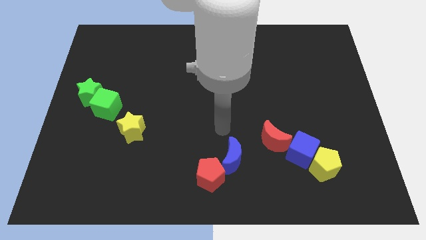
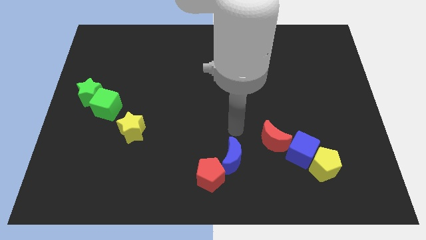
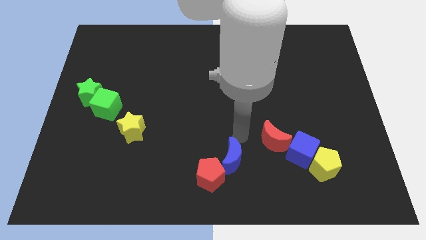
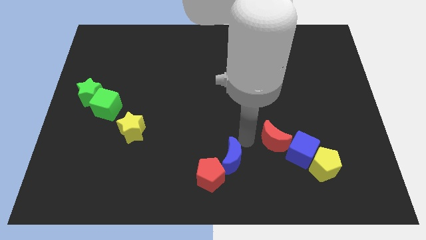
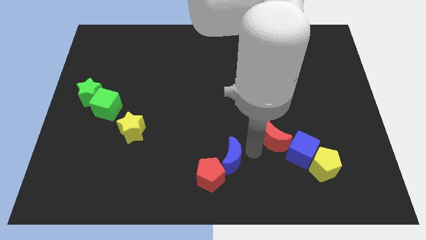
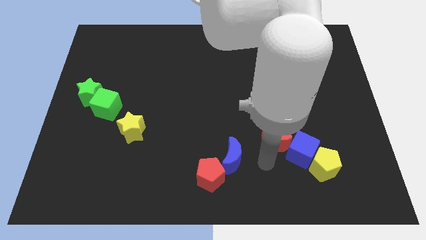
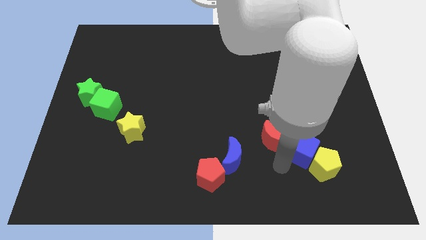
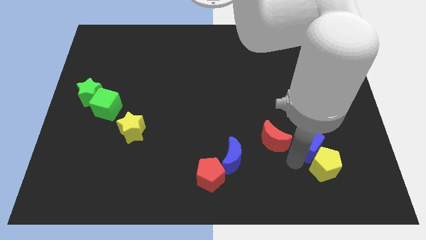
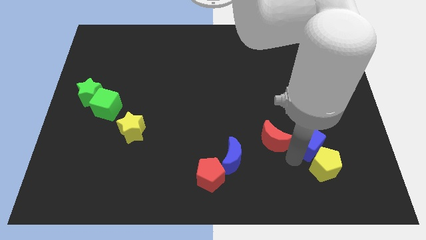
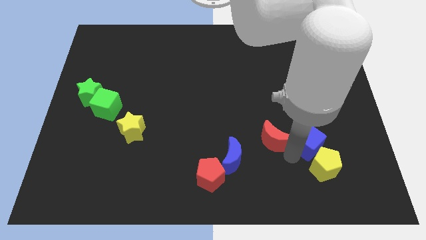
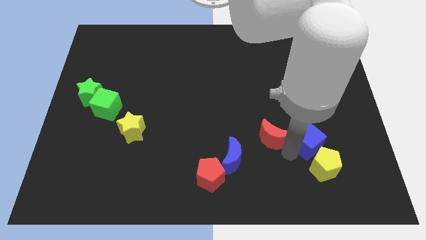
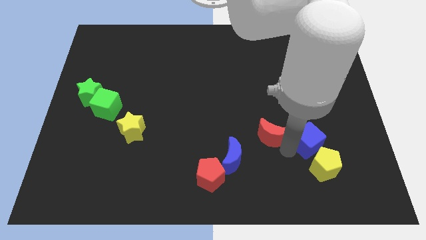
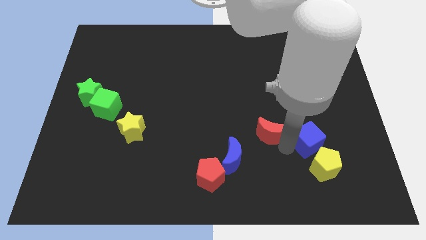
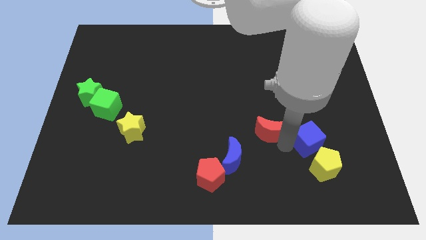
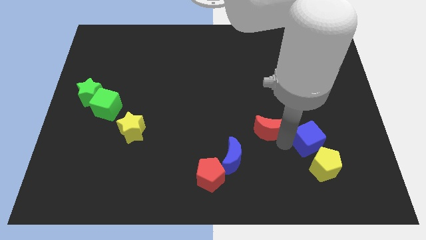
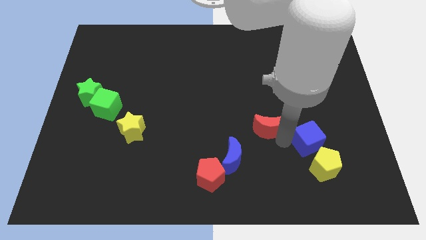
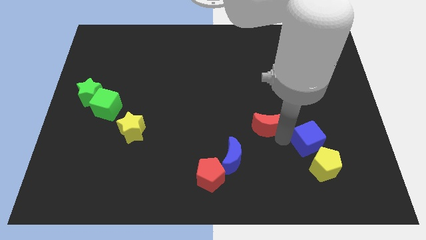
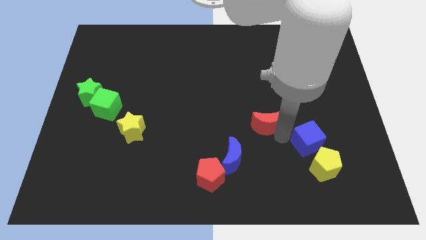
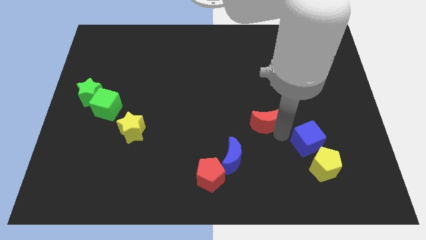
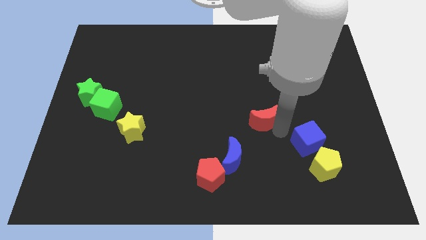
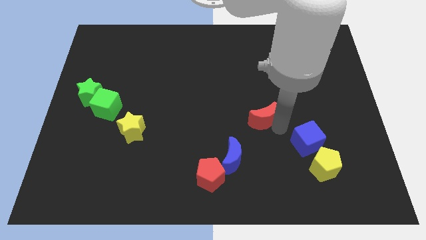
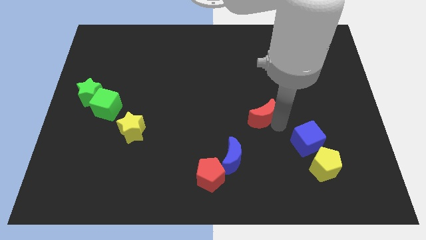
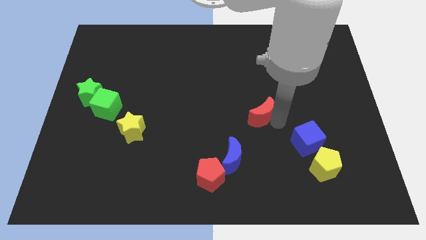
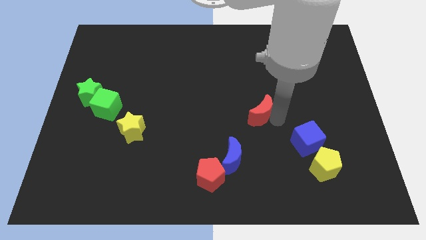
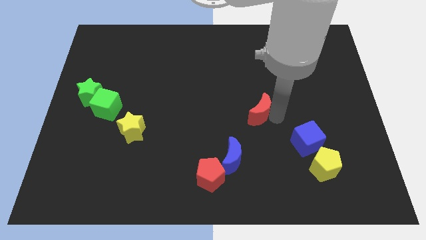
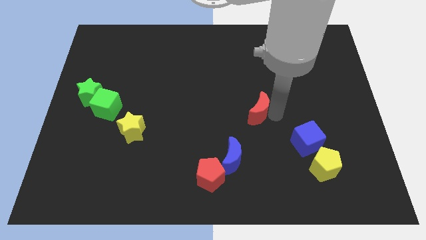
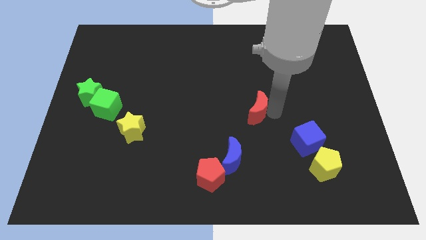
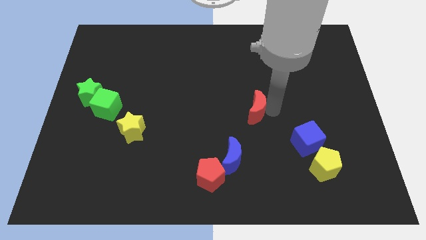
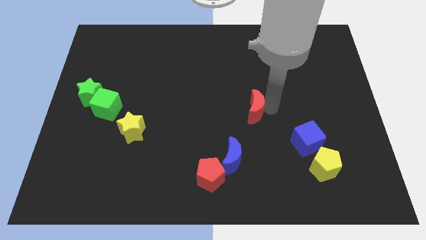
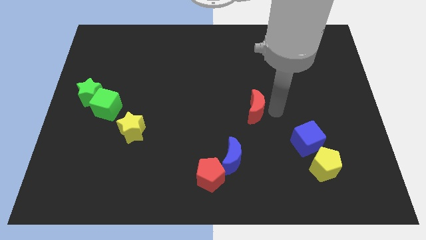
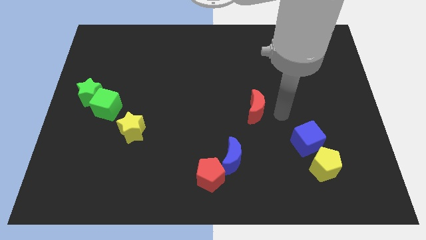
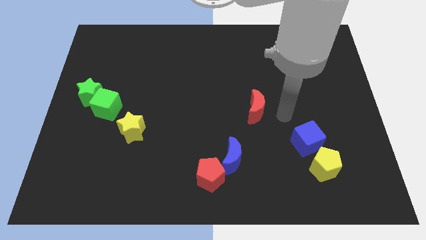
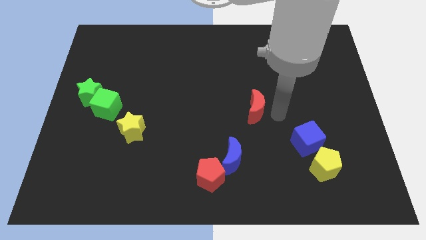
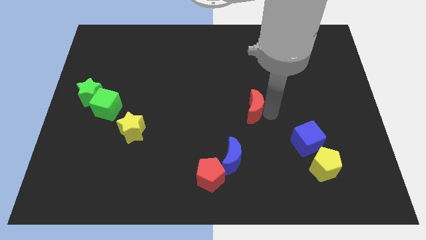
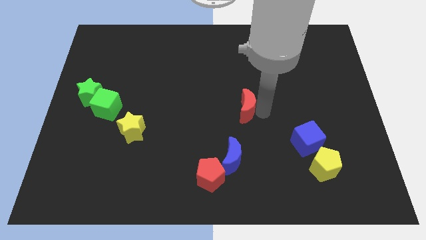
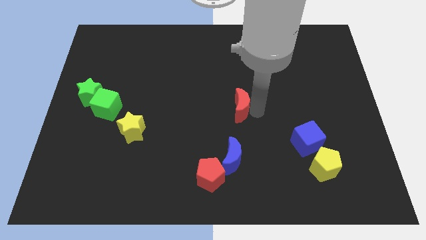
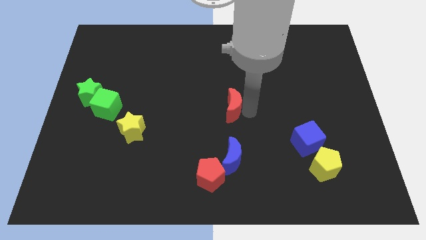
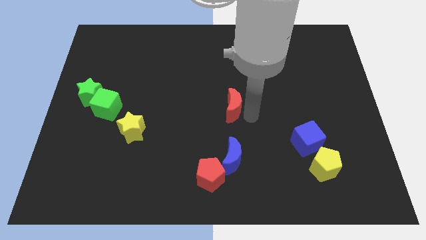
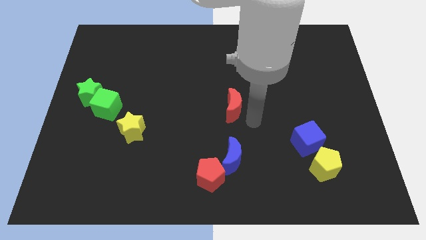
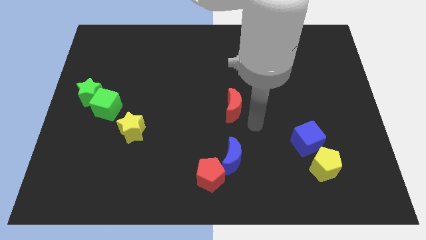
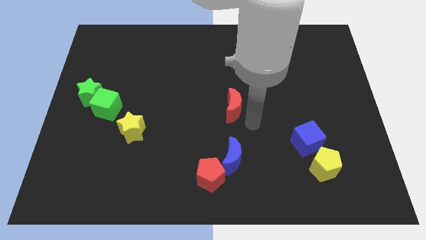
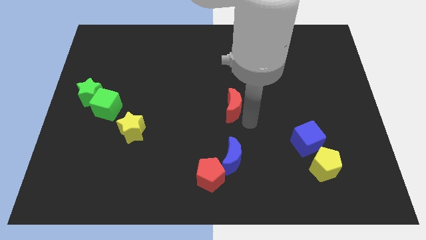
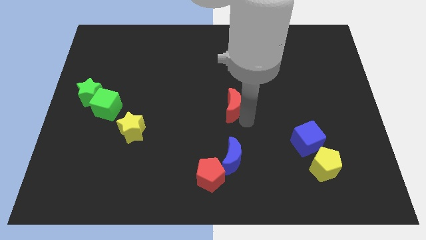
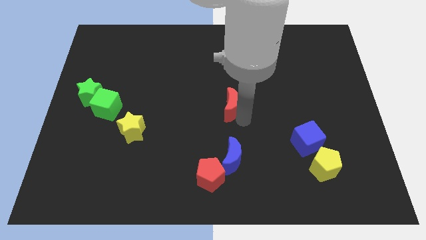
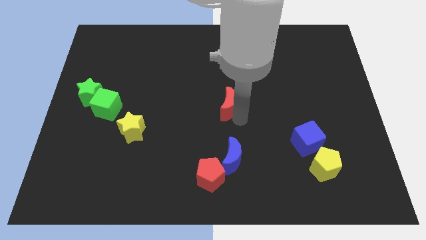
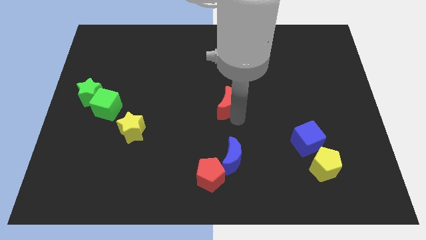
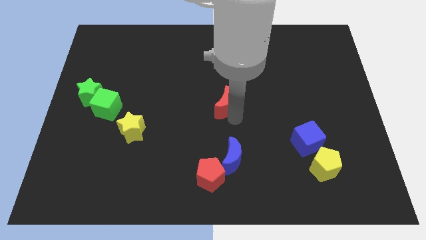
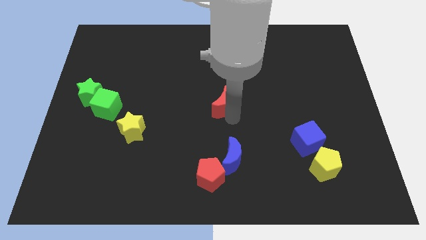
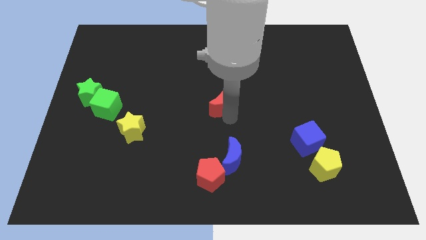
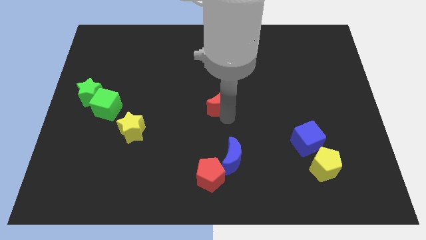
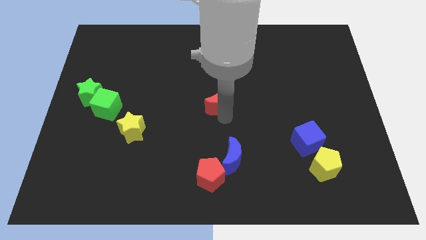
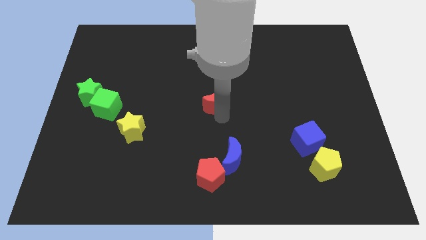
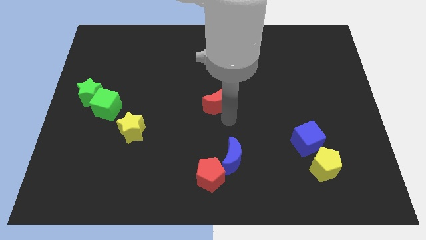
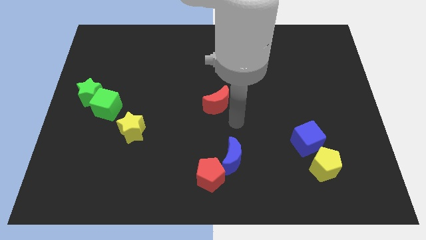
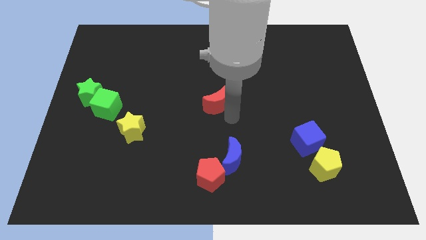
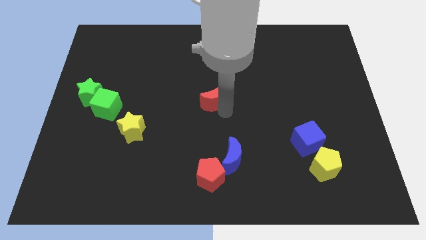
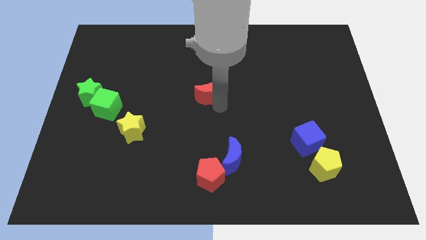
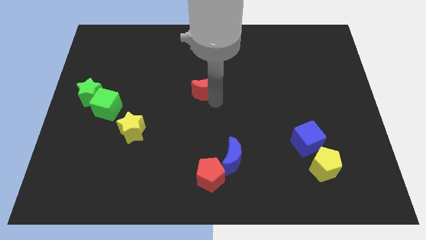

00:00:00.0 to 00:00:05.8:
move the red moon up and left

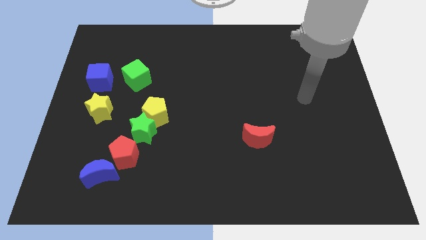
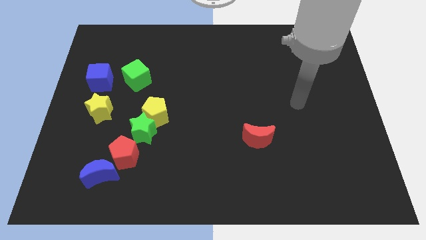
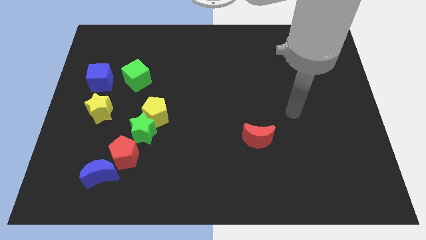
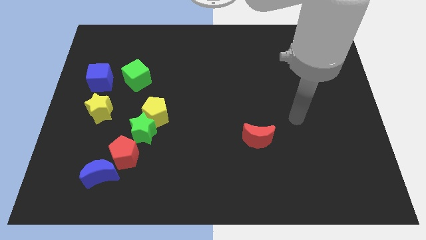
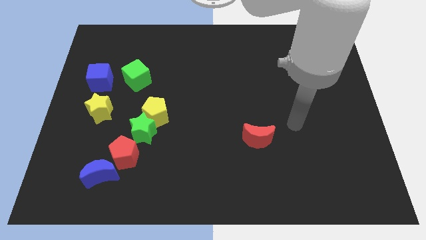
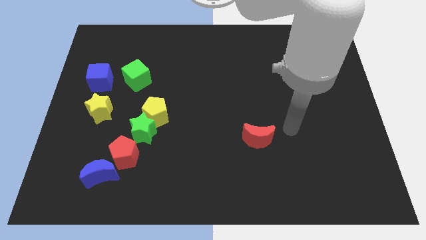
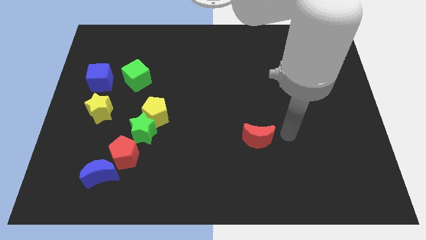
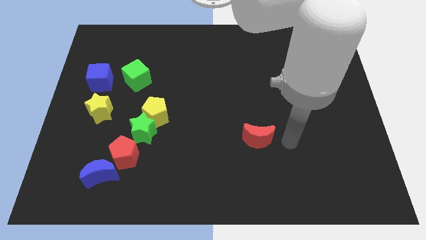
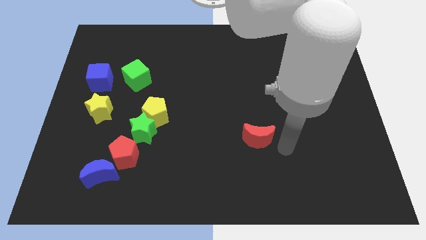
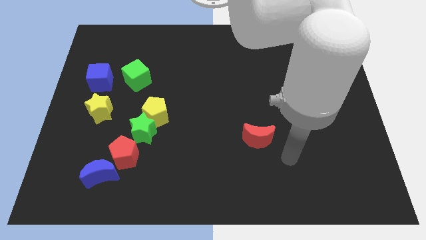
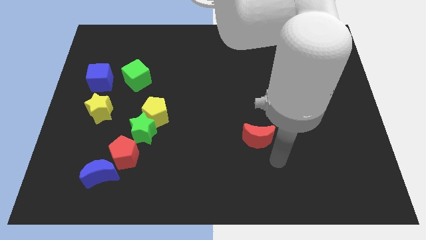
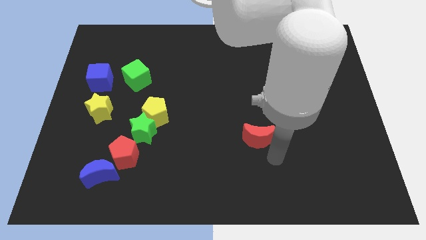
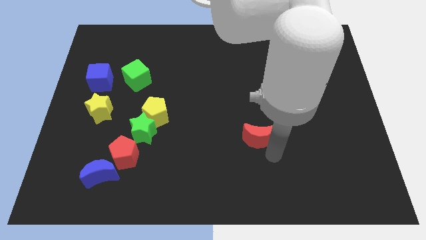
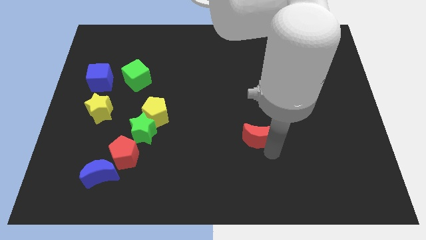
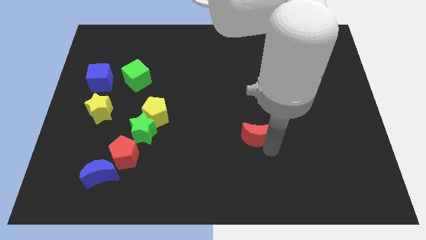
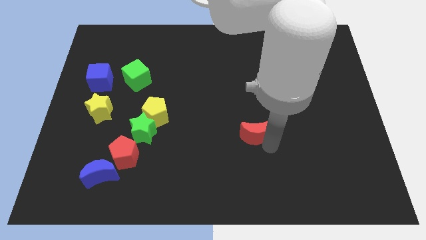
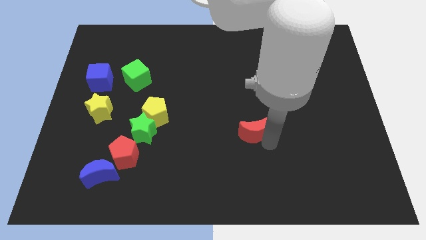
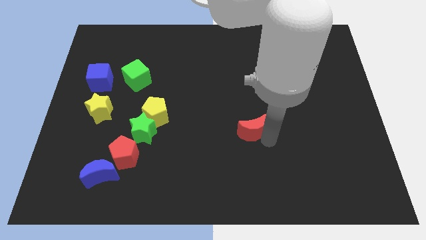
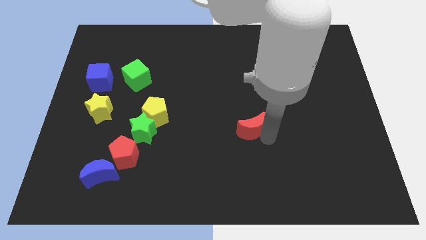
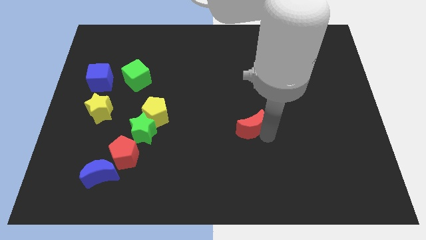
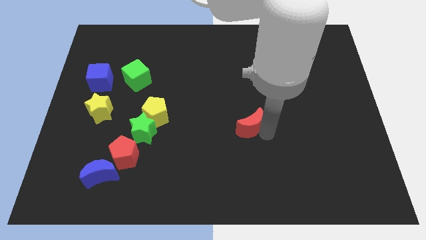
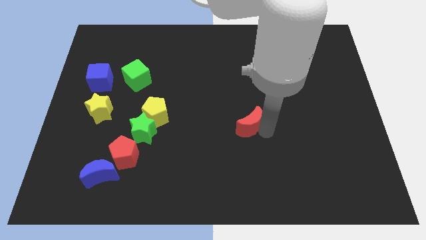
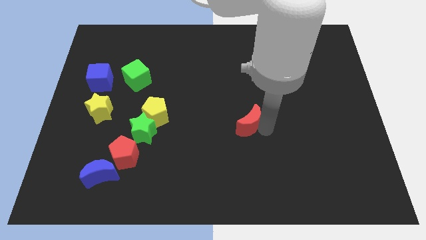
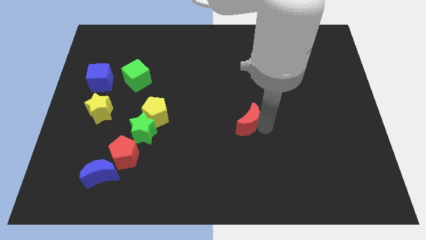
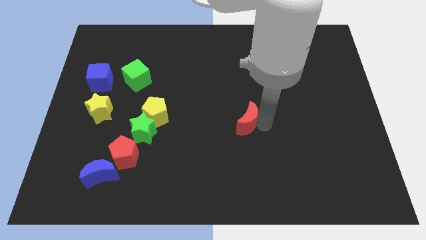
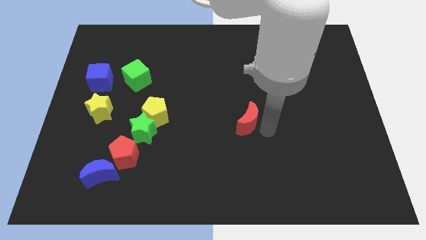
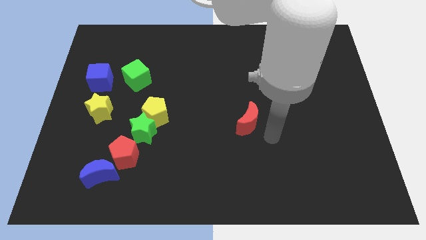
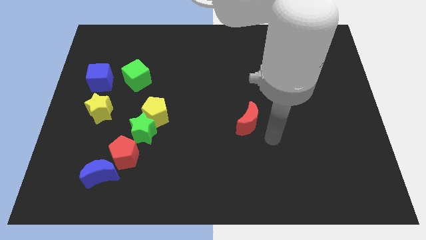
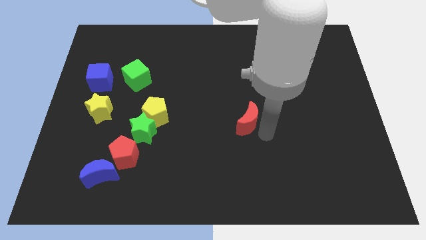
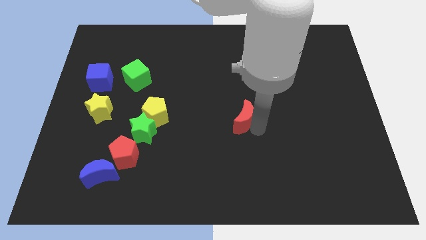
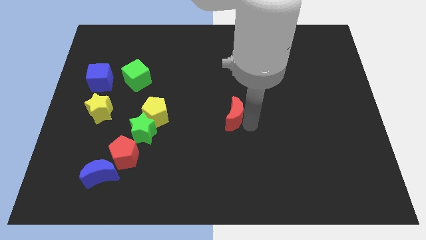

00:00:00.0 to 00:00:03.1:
slide the red moon a bit up and left diagonally
